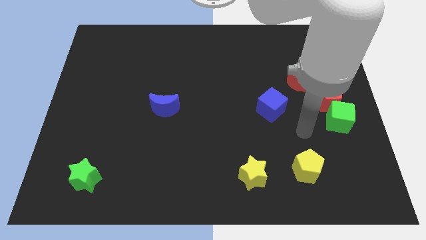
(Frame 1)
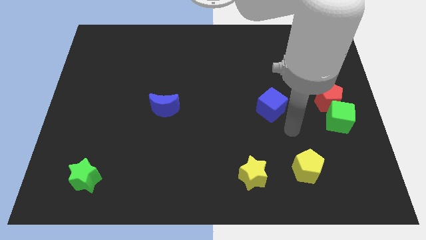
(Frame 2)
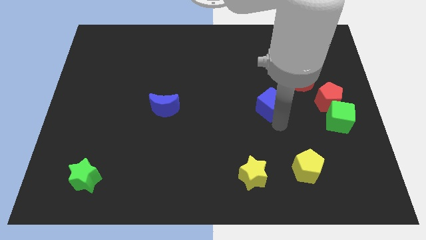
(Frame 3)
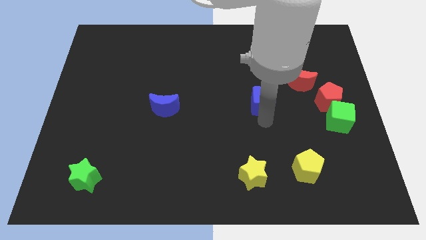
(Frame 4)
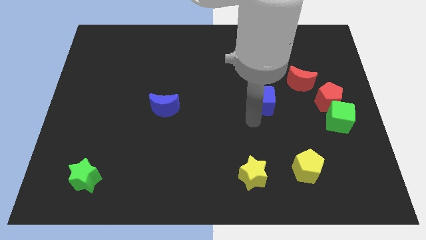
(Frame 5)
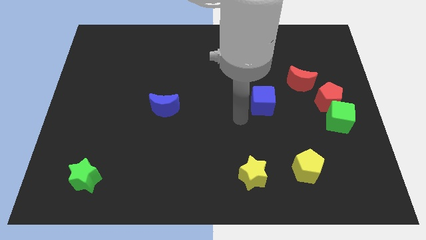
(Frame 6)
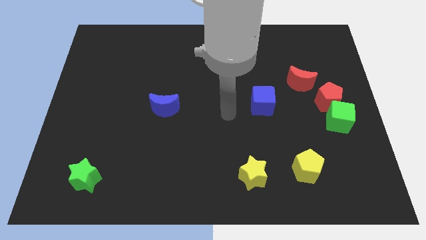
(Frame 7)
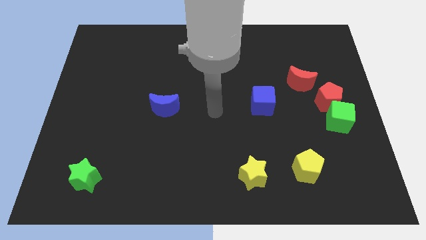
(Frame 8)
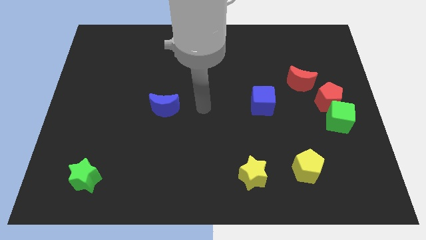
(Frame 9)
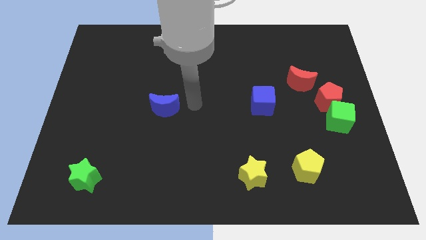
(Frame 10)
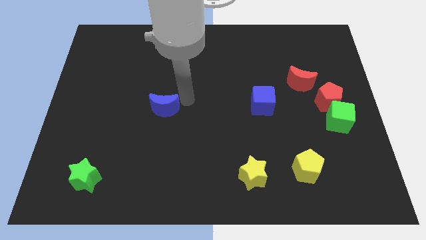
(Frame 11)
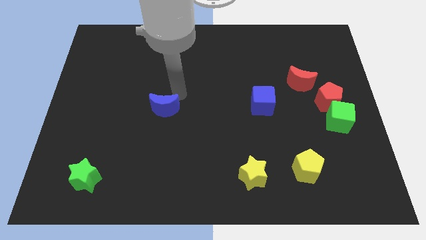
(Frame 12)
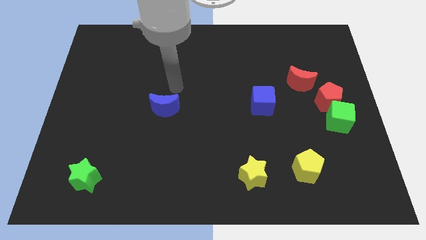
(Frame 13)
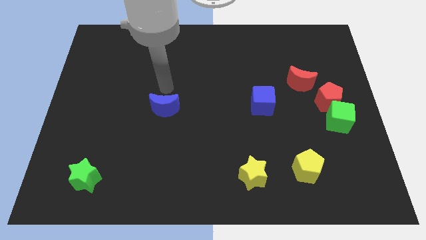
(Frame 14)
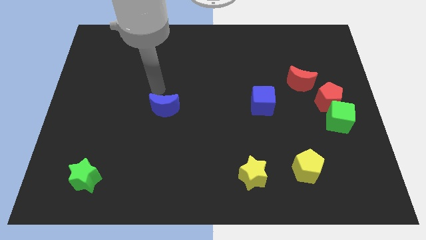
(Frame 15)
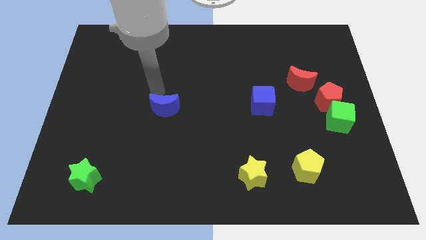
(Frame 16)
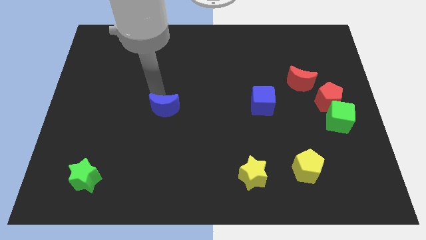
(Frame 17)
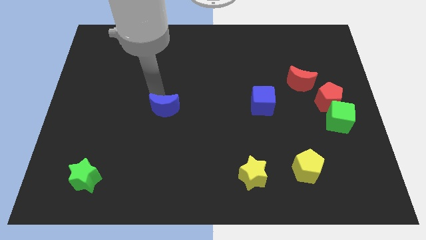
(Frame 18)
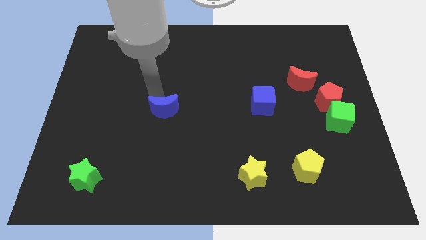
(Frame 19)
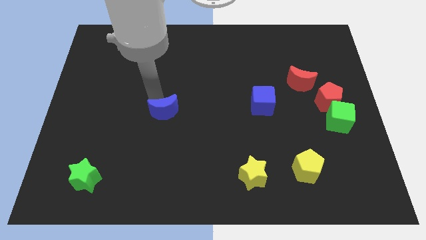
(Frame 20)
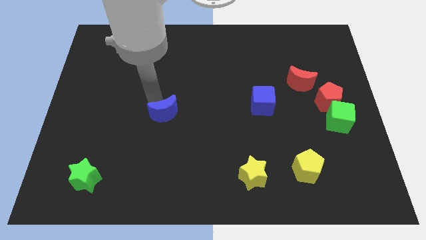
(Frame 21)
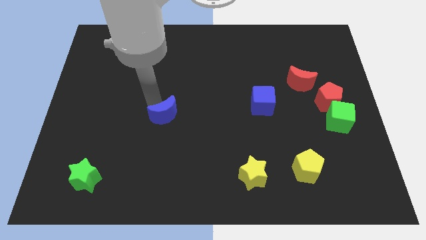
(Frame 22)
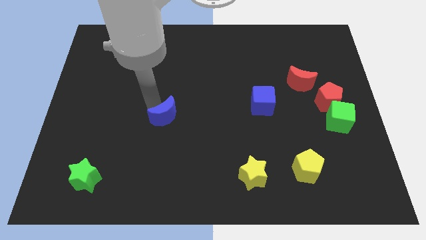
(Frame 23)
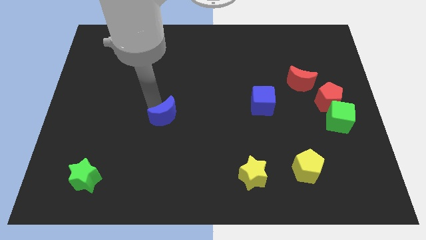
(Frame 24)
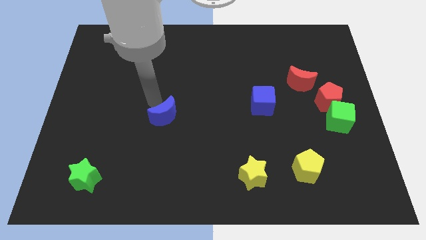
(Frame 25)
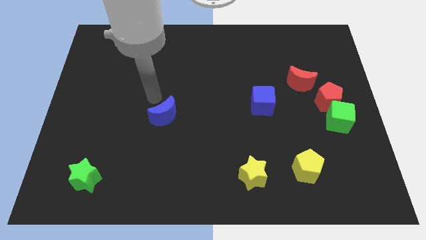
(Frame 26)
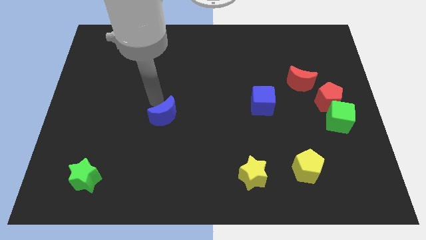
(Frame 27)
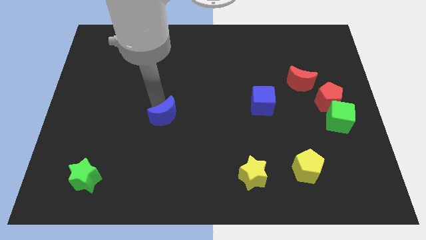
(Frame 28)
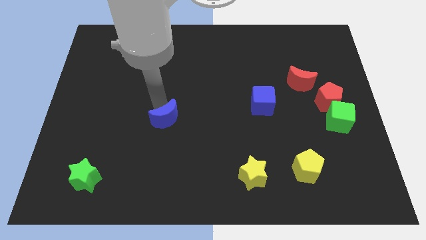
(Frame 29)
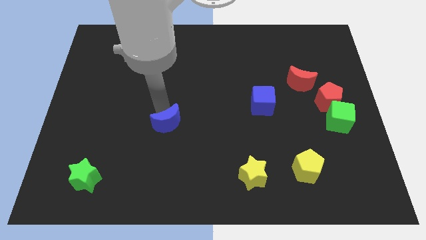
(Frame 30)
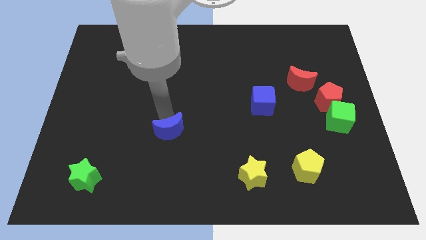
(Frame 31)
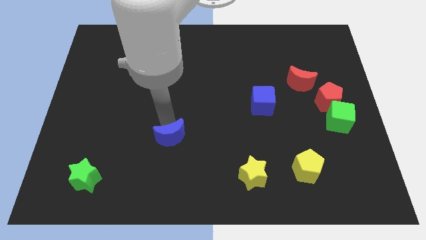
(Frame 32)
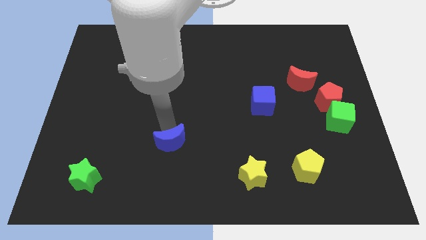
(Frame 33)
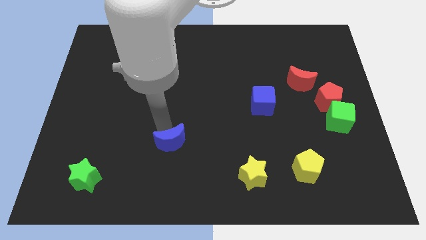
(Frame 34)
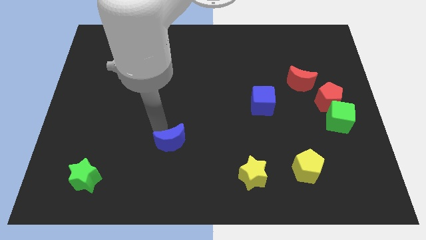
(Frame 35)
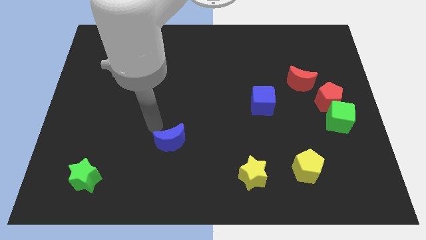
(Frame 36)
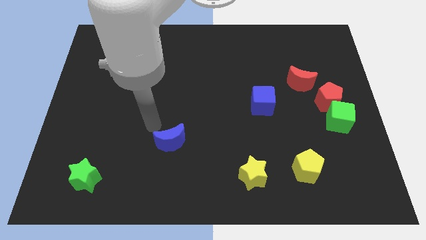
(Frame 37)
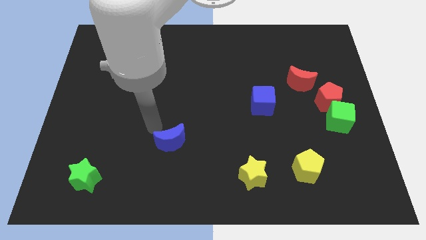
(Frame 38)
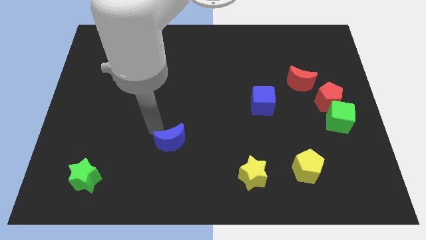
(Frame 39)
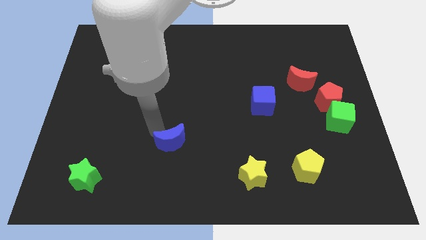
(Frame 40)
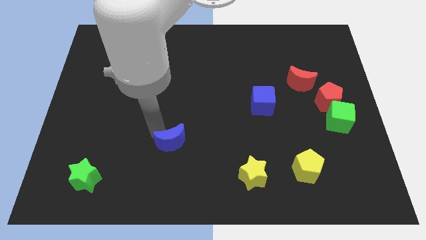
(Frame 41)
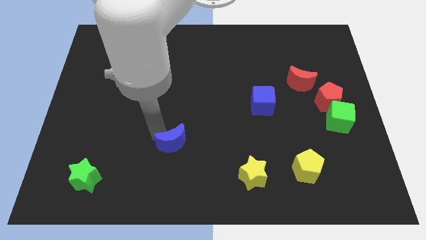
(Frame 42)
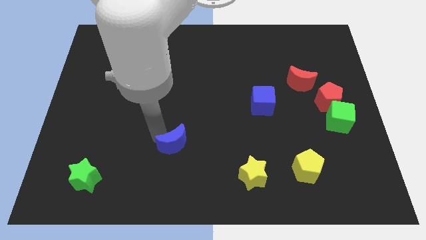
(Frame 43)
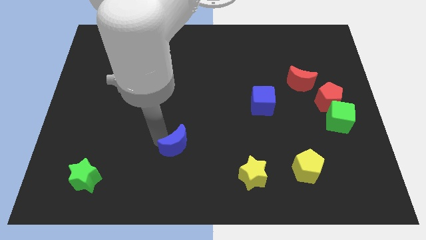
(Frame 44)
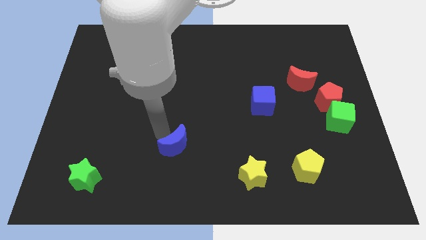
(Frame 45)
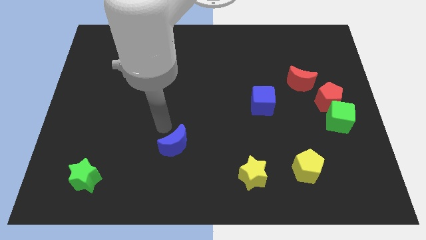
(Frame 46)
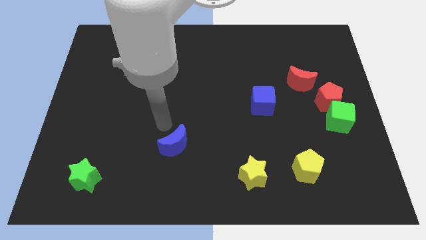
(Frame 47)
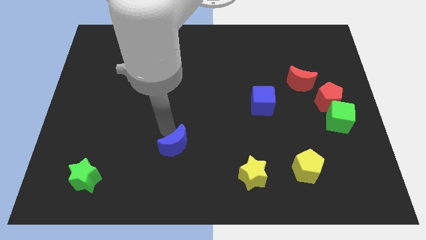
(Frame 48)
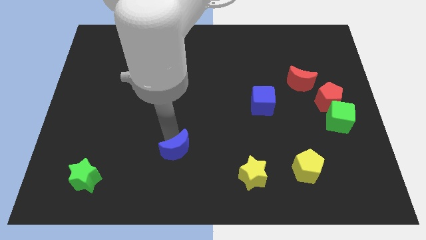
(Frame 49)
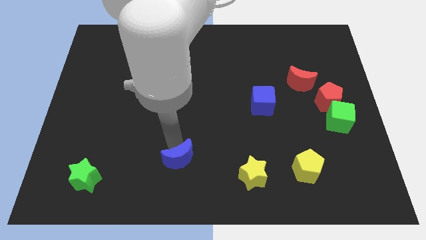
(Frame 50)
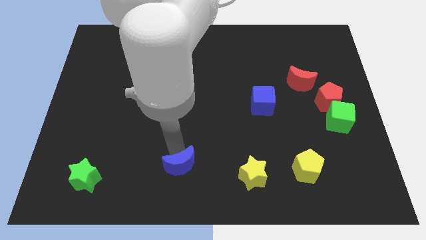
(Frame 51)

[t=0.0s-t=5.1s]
put the blue moon to the bottom side

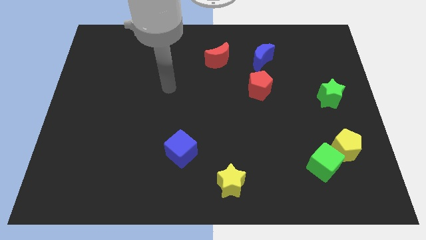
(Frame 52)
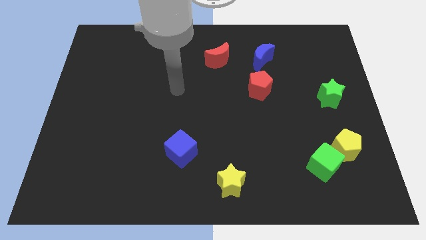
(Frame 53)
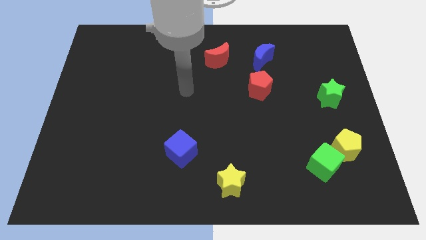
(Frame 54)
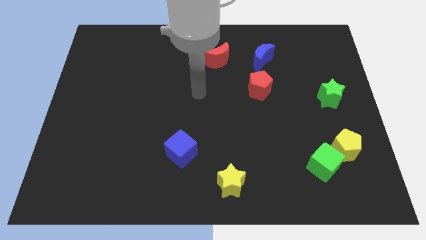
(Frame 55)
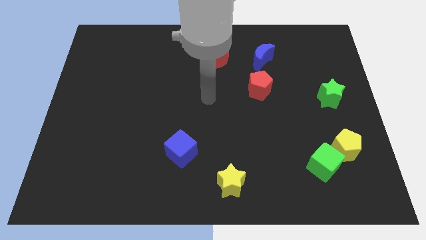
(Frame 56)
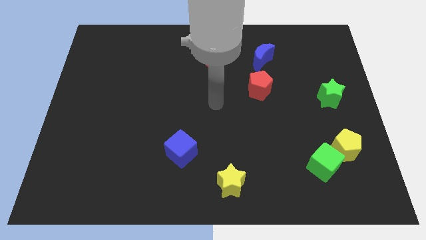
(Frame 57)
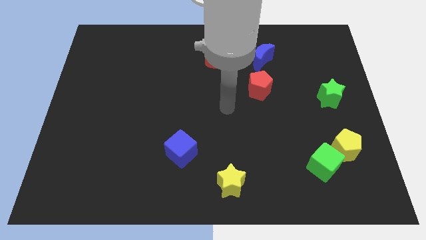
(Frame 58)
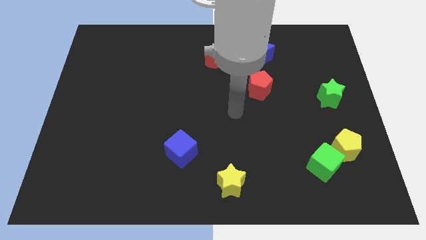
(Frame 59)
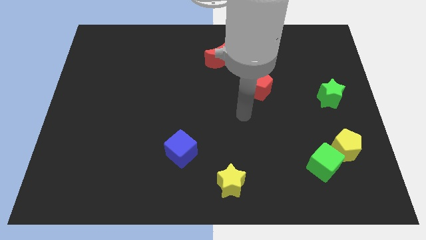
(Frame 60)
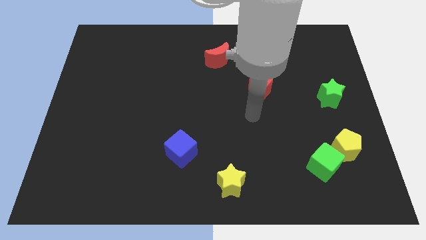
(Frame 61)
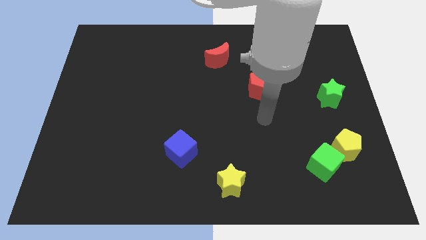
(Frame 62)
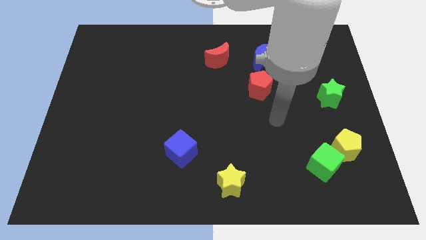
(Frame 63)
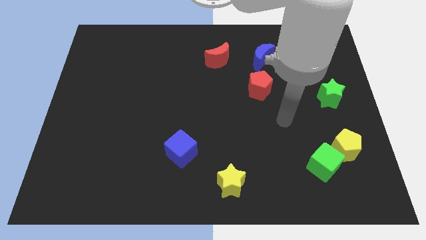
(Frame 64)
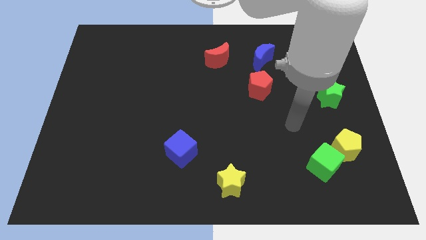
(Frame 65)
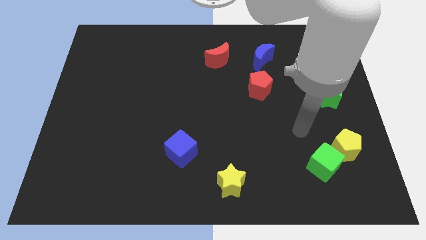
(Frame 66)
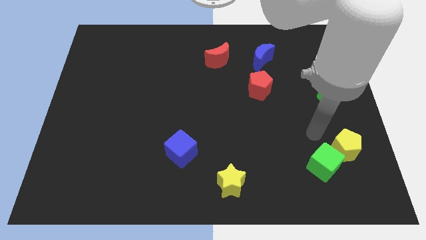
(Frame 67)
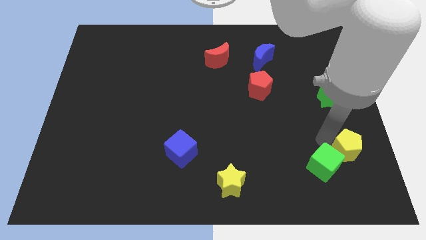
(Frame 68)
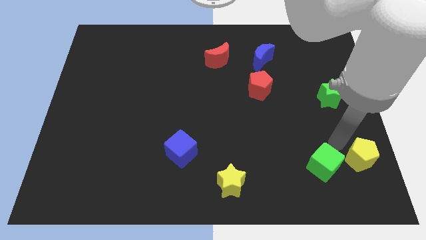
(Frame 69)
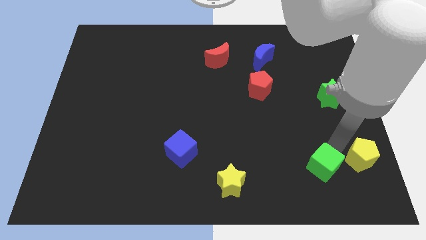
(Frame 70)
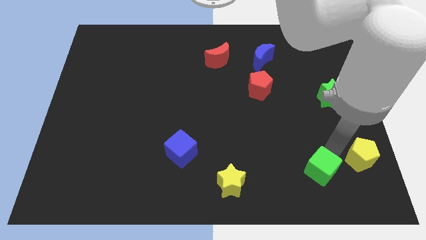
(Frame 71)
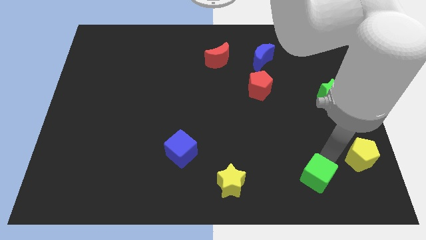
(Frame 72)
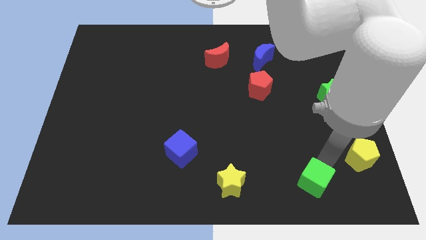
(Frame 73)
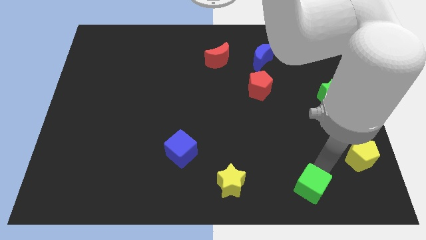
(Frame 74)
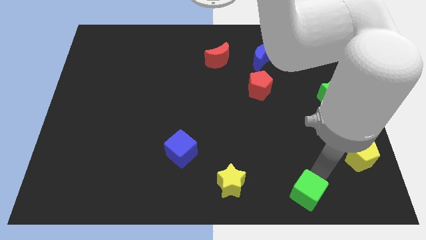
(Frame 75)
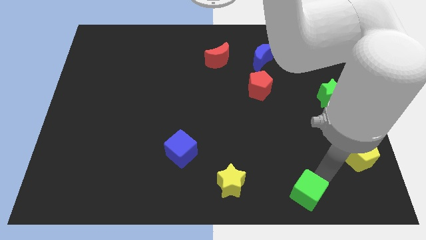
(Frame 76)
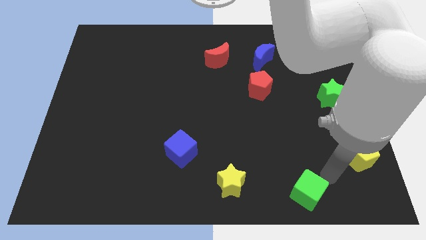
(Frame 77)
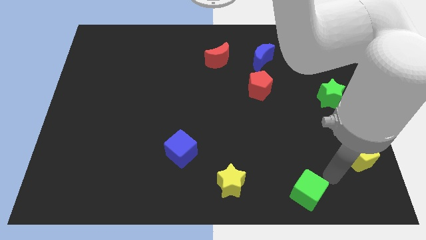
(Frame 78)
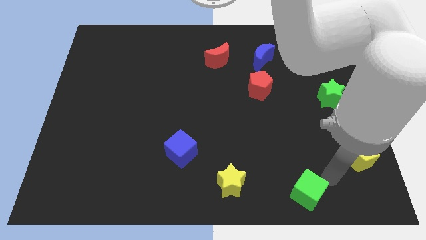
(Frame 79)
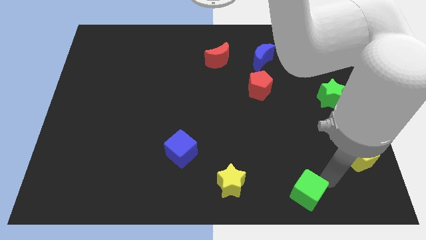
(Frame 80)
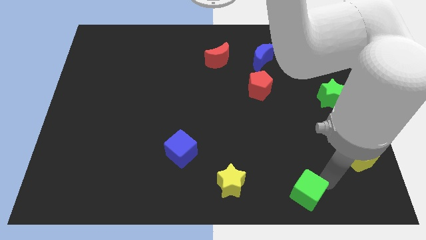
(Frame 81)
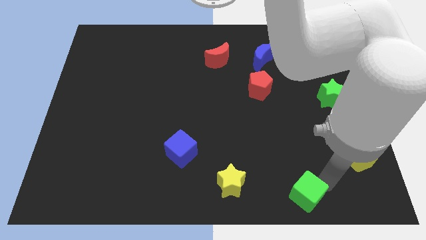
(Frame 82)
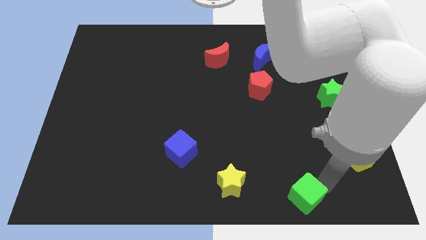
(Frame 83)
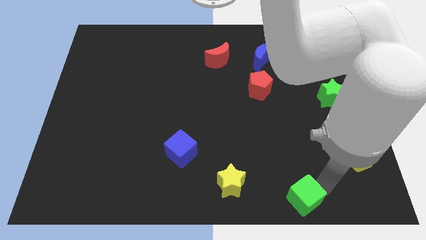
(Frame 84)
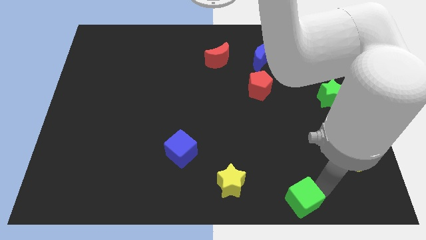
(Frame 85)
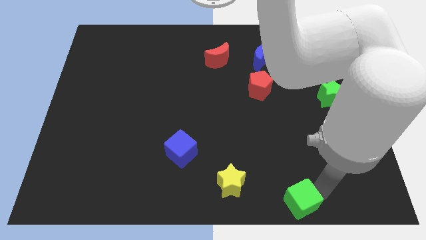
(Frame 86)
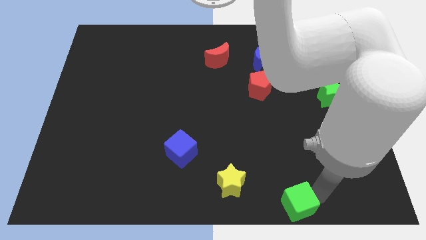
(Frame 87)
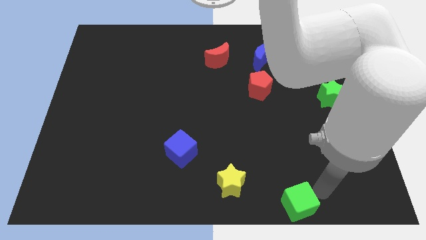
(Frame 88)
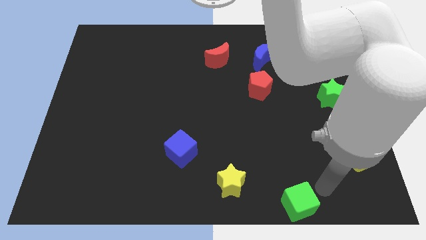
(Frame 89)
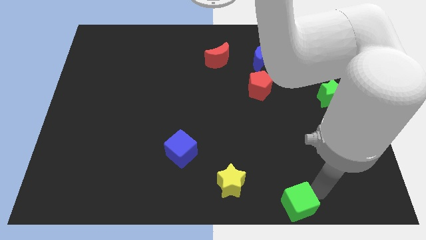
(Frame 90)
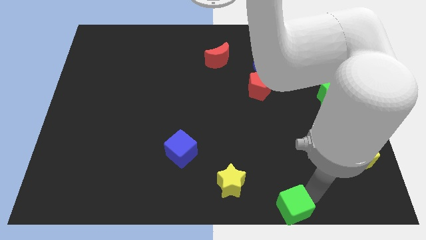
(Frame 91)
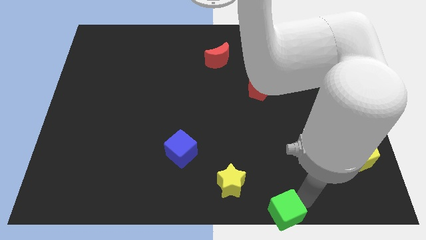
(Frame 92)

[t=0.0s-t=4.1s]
move the green cube to the bottom side
